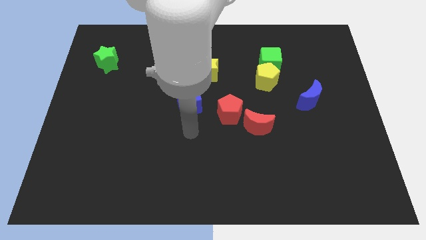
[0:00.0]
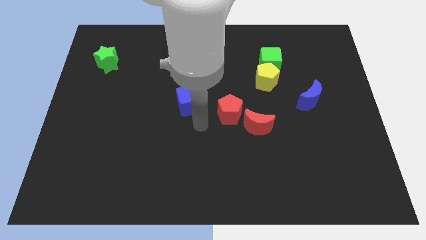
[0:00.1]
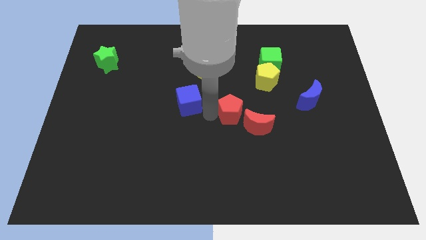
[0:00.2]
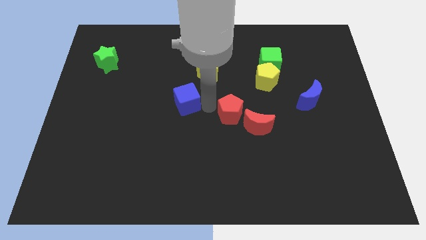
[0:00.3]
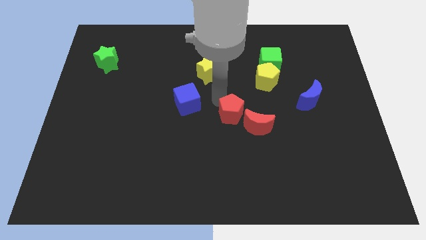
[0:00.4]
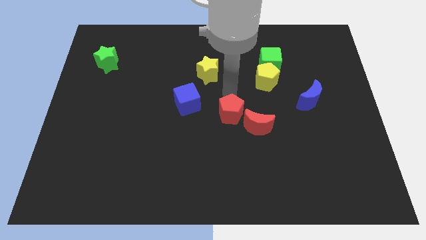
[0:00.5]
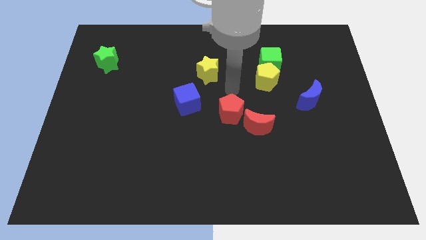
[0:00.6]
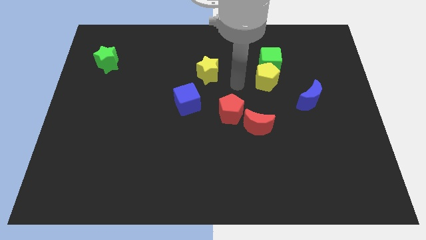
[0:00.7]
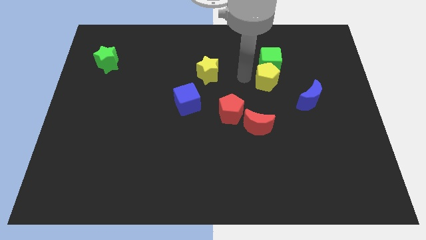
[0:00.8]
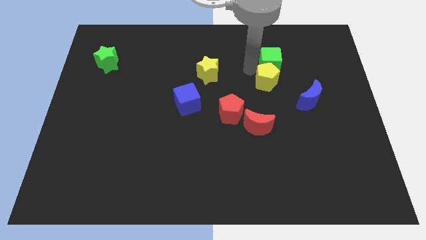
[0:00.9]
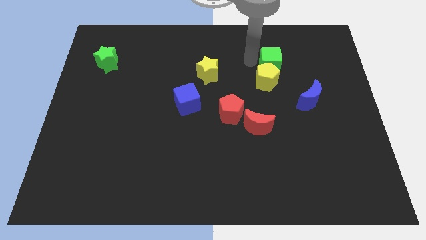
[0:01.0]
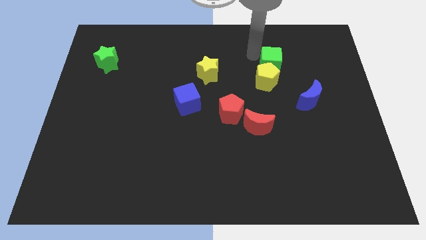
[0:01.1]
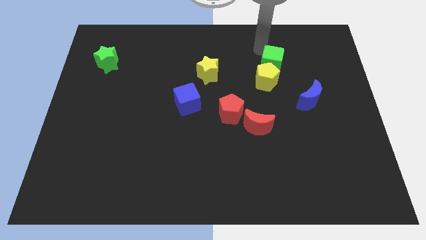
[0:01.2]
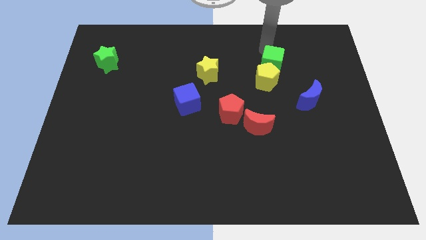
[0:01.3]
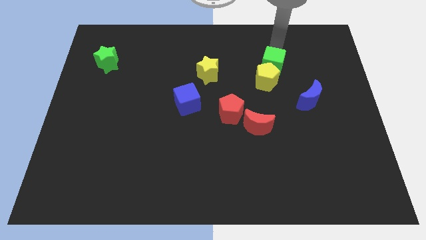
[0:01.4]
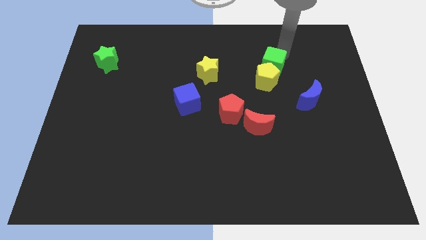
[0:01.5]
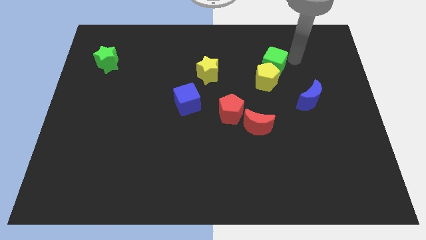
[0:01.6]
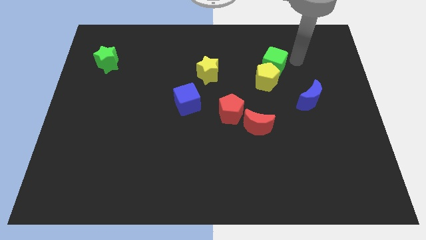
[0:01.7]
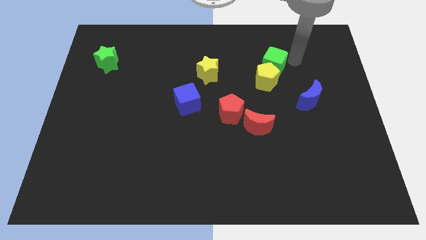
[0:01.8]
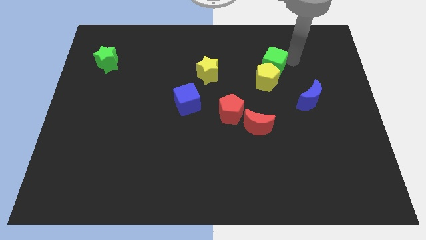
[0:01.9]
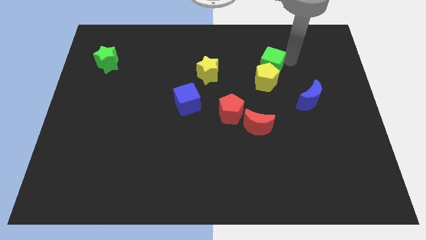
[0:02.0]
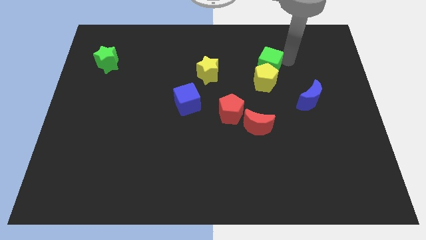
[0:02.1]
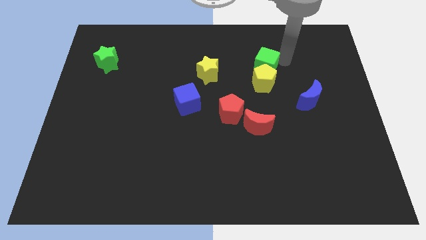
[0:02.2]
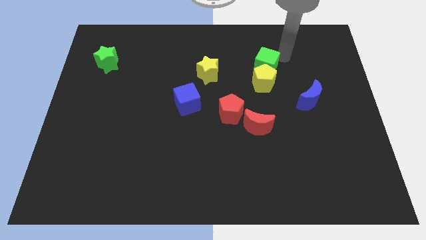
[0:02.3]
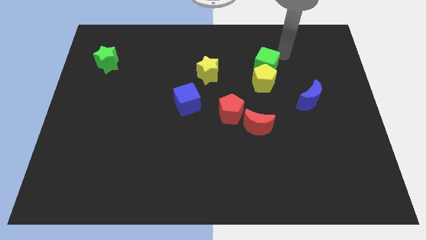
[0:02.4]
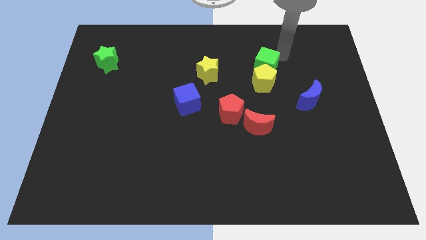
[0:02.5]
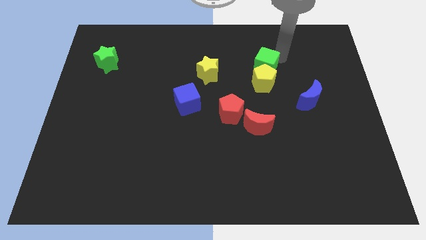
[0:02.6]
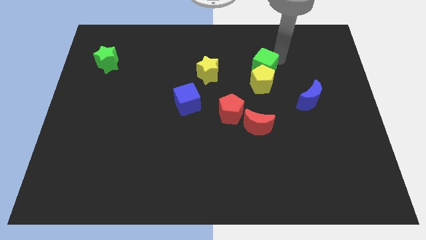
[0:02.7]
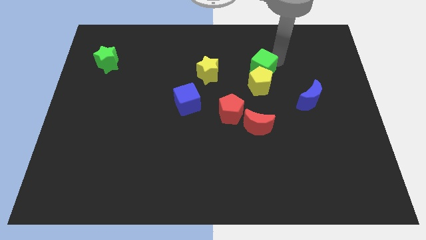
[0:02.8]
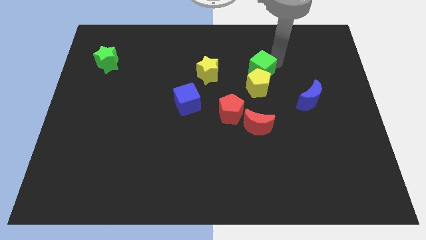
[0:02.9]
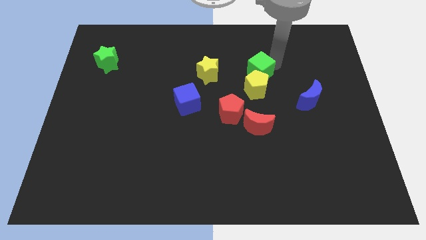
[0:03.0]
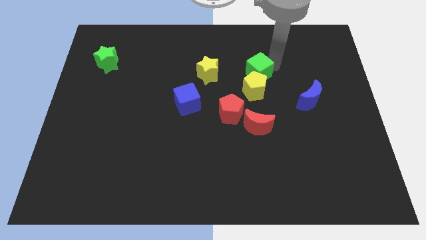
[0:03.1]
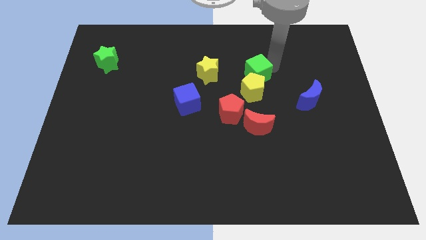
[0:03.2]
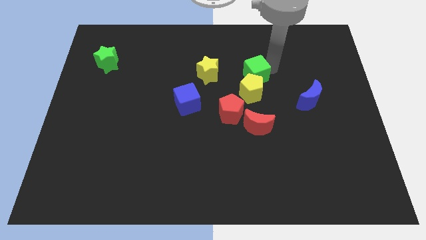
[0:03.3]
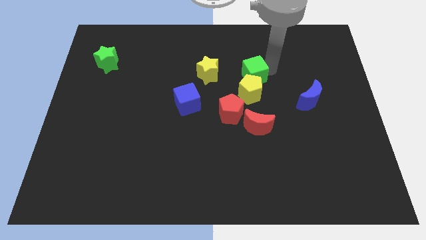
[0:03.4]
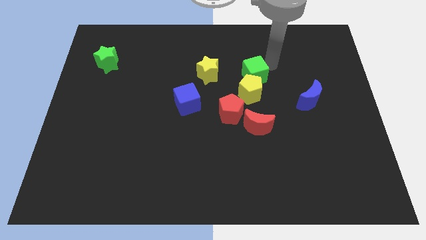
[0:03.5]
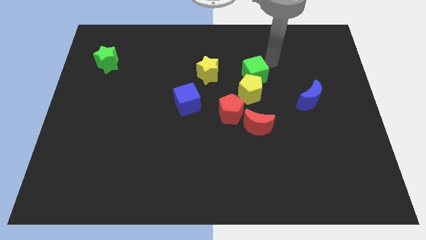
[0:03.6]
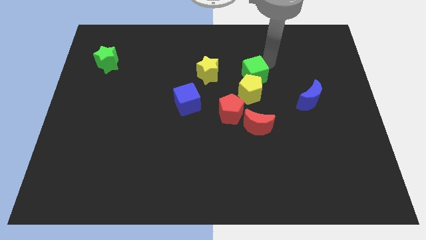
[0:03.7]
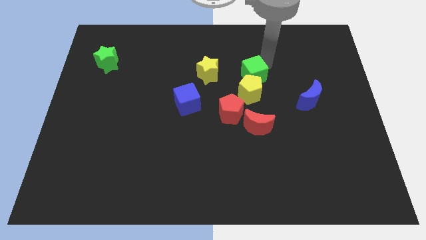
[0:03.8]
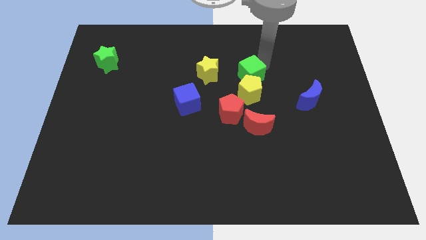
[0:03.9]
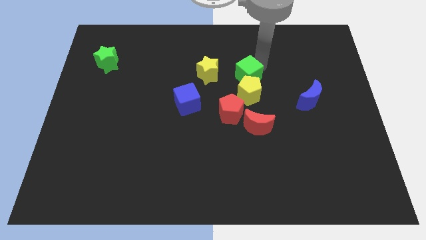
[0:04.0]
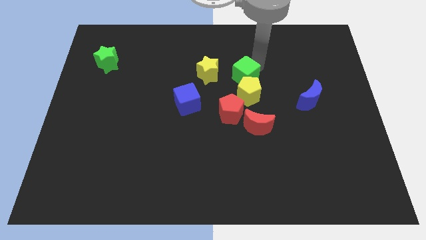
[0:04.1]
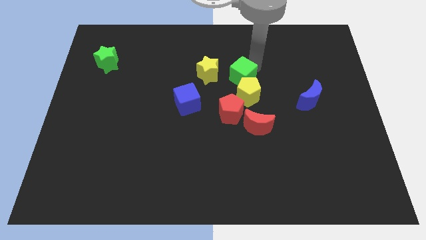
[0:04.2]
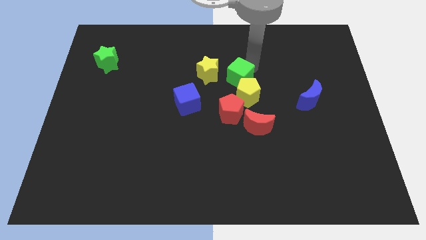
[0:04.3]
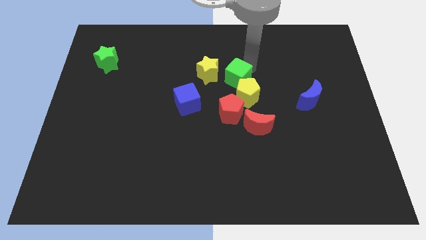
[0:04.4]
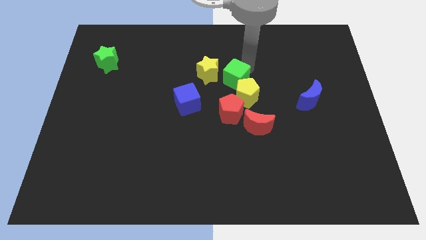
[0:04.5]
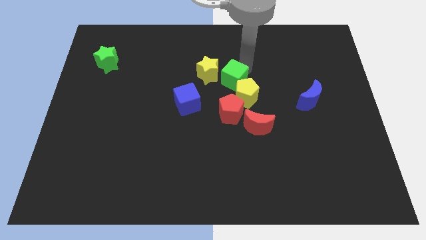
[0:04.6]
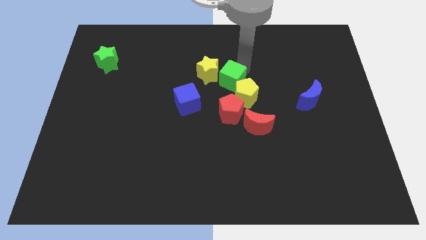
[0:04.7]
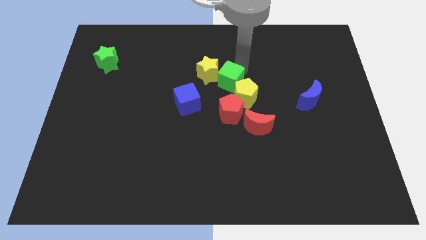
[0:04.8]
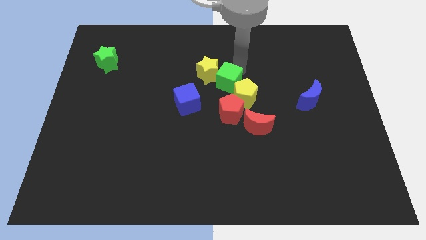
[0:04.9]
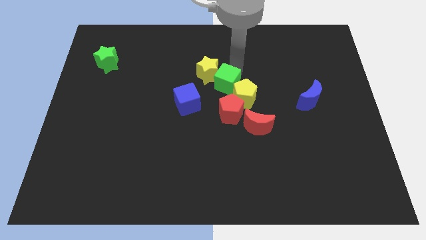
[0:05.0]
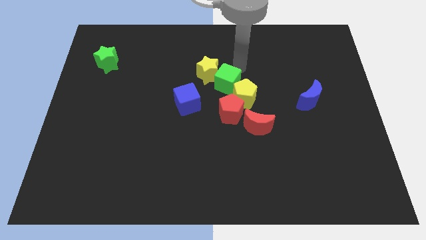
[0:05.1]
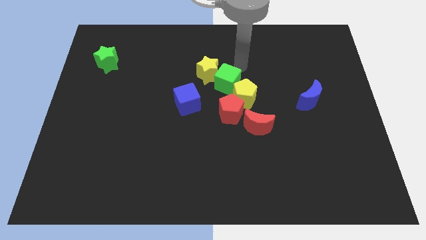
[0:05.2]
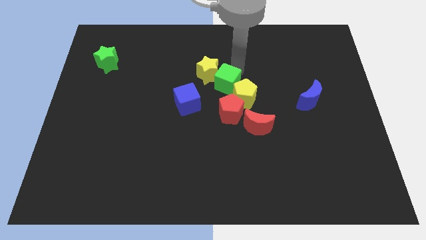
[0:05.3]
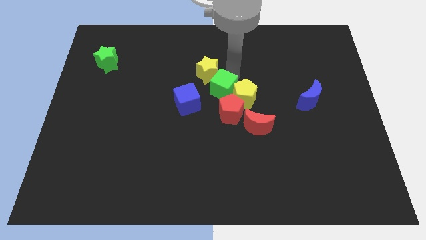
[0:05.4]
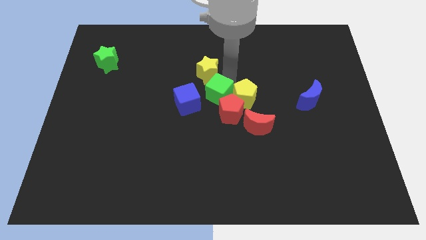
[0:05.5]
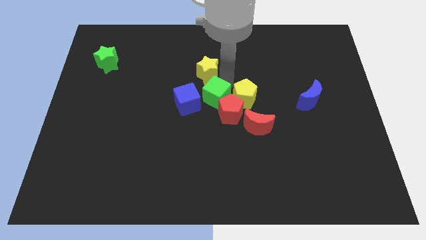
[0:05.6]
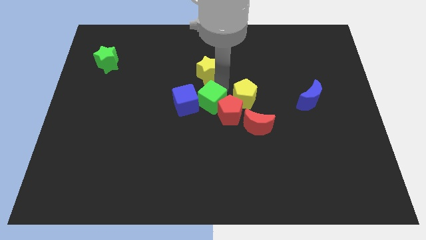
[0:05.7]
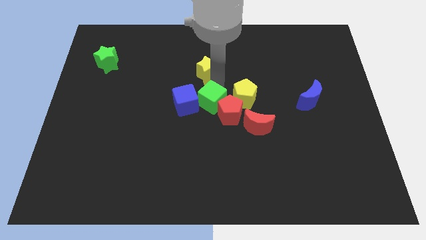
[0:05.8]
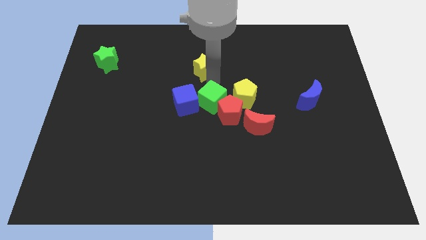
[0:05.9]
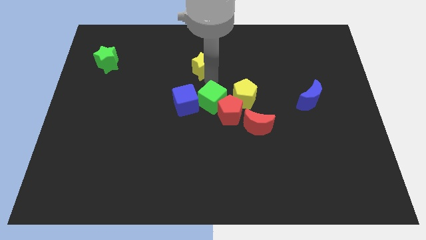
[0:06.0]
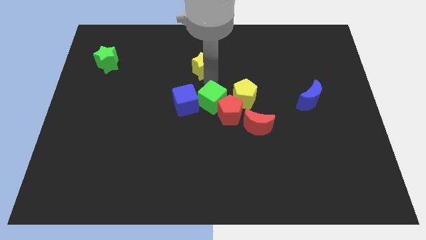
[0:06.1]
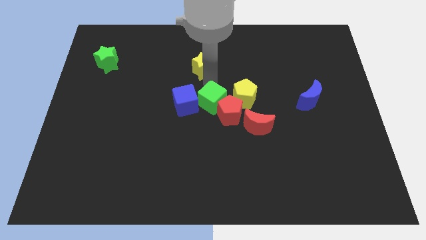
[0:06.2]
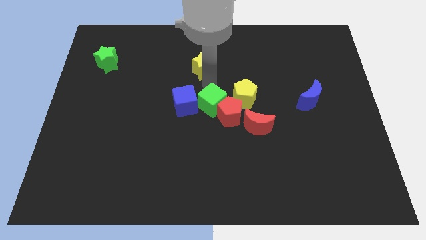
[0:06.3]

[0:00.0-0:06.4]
push the green cube downwards and then left

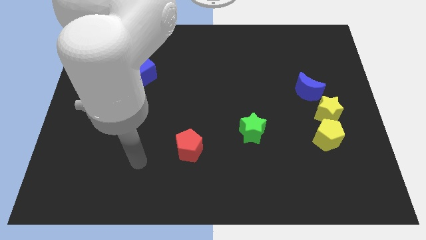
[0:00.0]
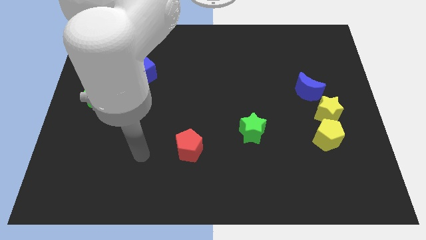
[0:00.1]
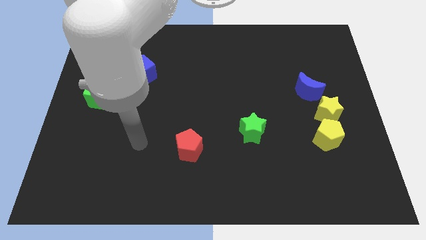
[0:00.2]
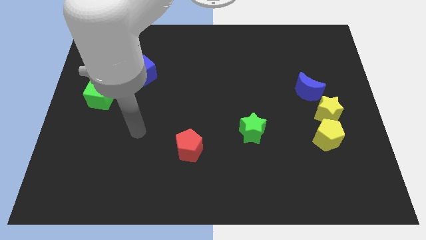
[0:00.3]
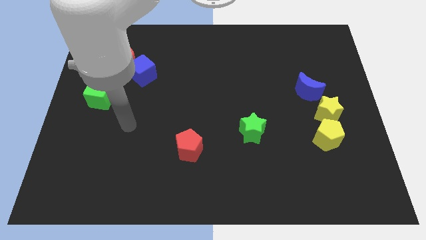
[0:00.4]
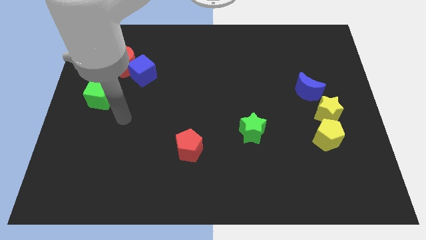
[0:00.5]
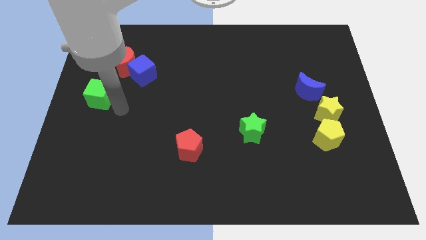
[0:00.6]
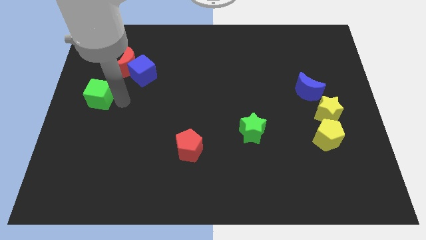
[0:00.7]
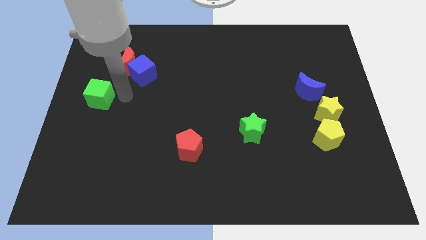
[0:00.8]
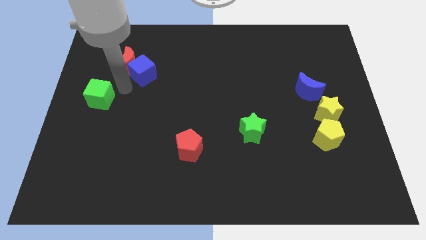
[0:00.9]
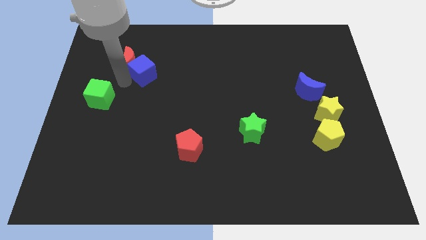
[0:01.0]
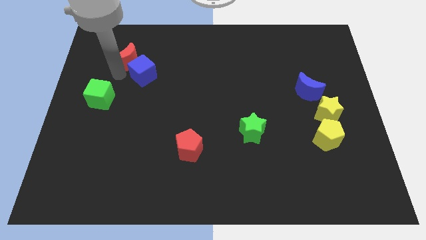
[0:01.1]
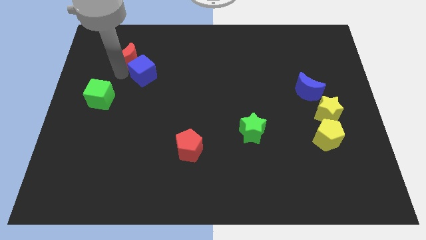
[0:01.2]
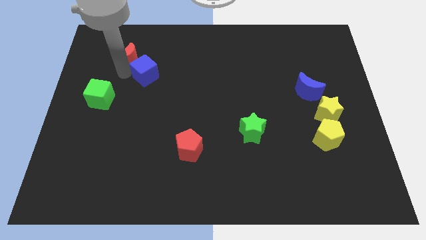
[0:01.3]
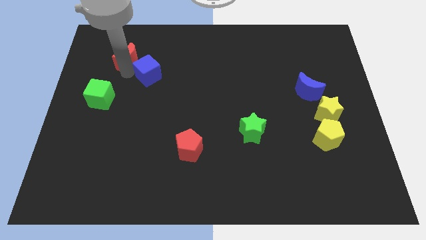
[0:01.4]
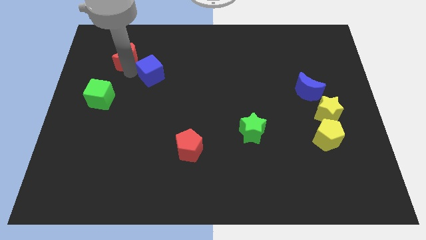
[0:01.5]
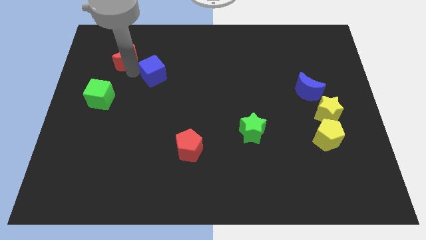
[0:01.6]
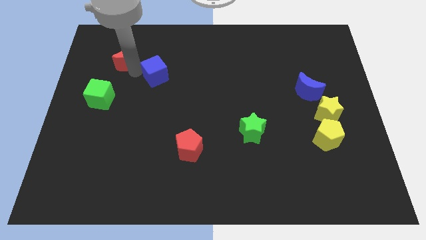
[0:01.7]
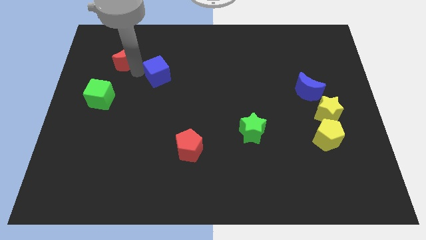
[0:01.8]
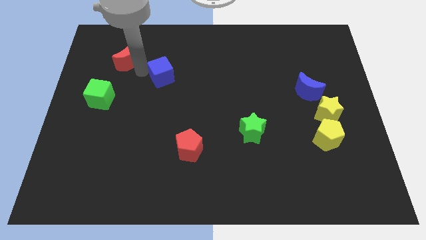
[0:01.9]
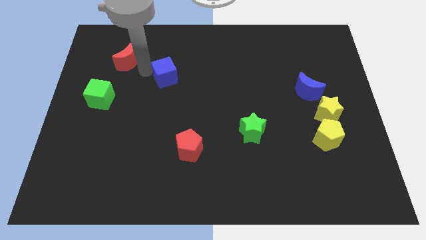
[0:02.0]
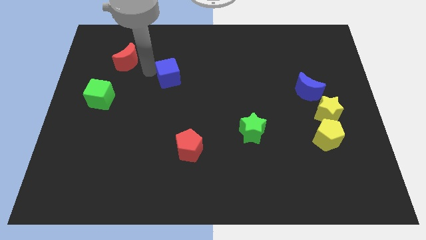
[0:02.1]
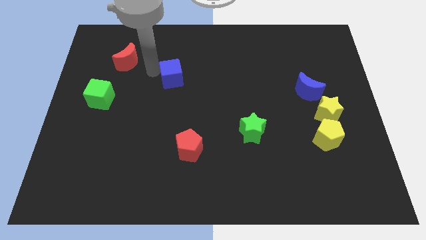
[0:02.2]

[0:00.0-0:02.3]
slightly slide the blue cube right
